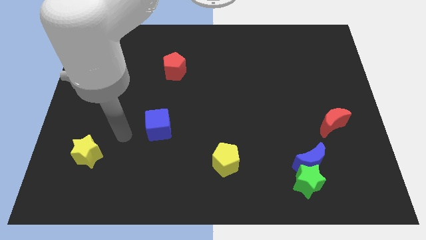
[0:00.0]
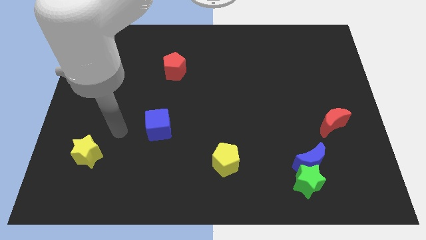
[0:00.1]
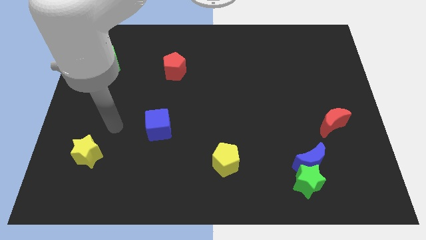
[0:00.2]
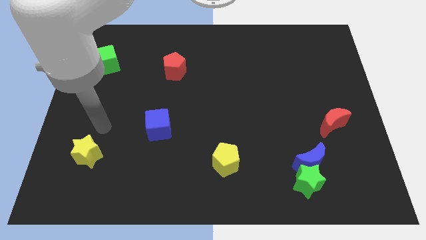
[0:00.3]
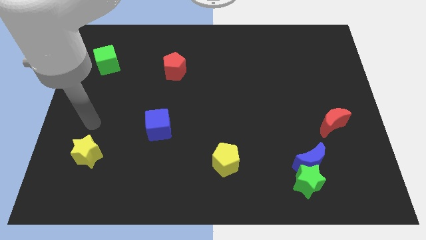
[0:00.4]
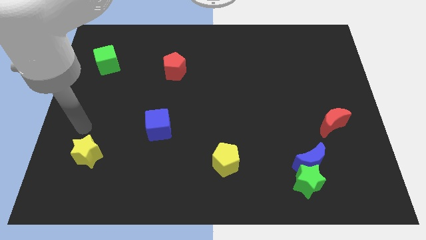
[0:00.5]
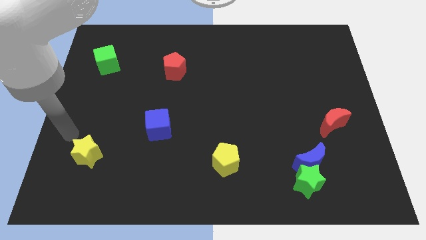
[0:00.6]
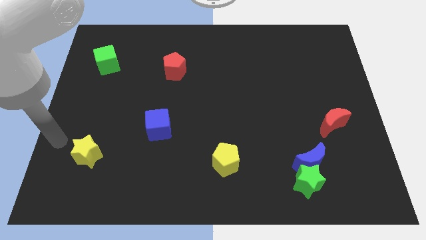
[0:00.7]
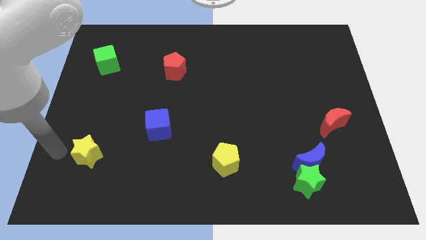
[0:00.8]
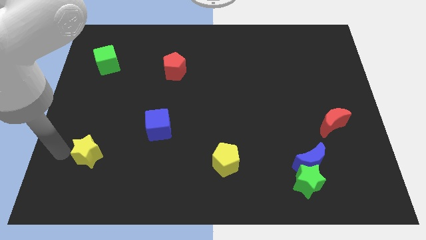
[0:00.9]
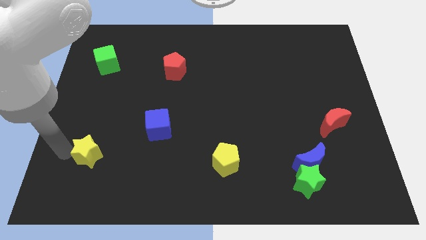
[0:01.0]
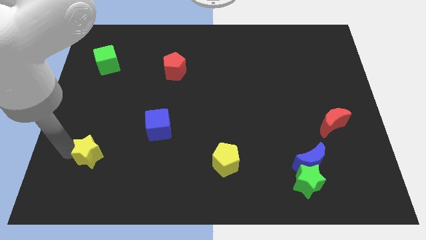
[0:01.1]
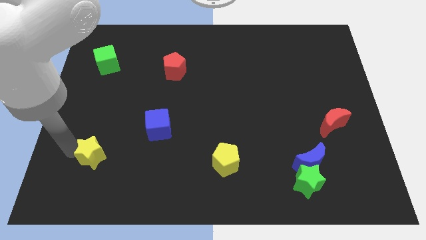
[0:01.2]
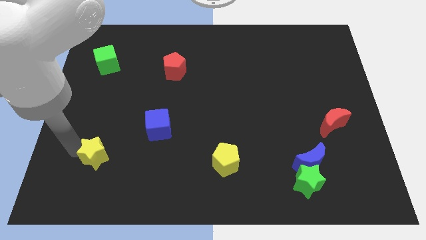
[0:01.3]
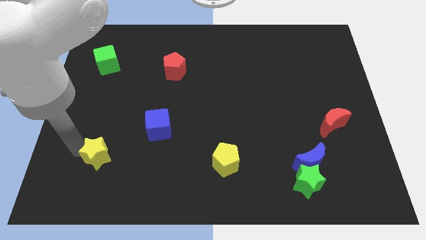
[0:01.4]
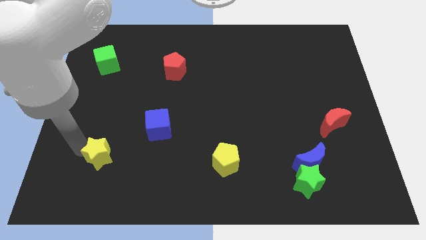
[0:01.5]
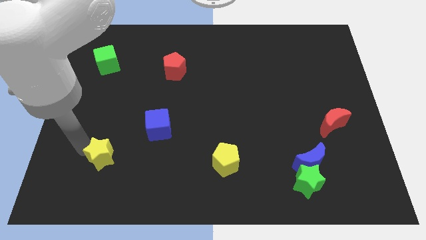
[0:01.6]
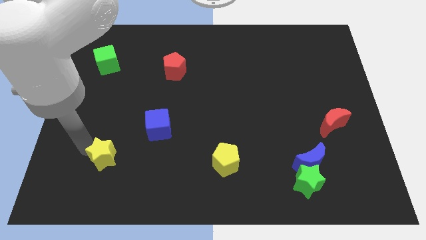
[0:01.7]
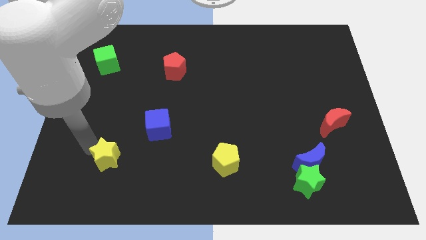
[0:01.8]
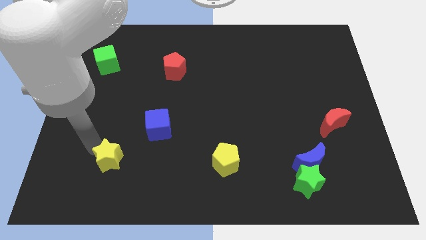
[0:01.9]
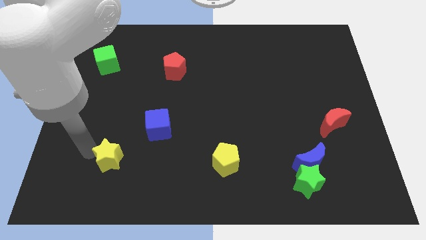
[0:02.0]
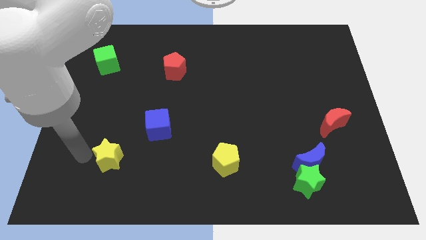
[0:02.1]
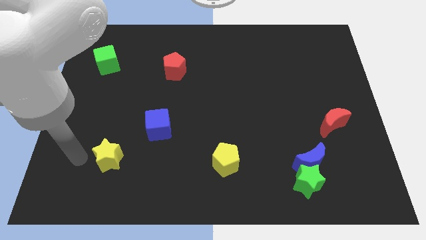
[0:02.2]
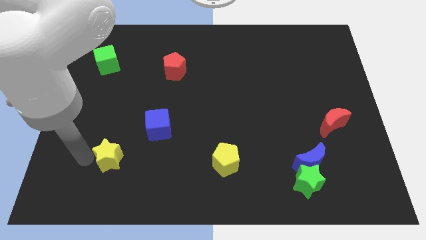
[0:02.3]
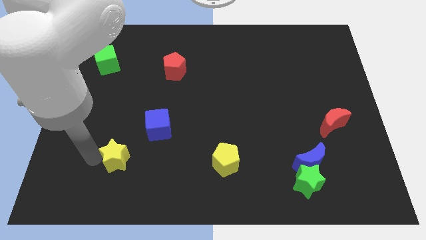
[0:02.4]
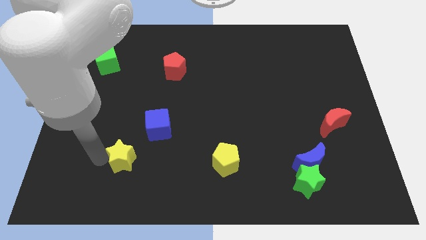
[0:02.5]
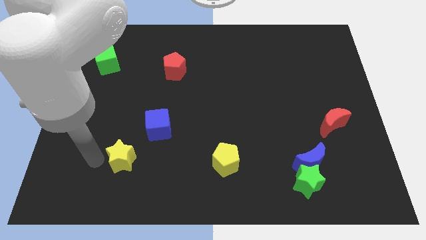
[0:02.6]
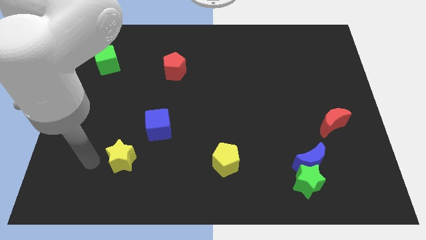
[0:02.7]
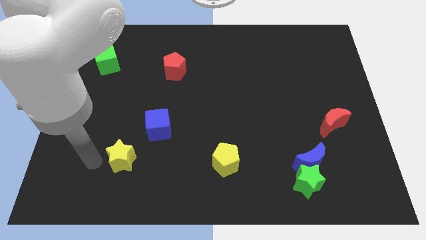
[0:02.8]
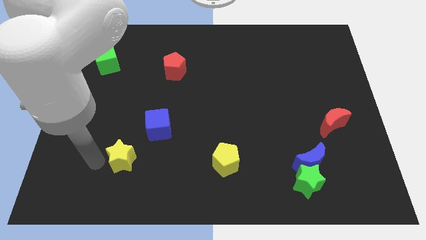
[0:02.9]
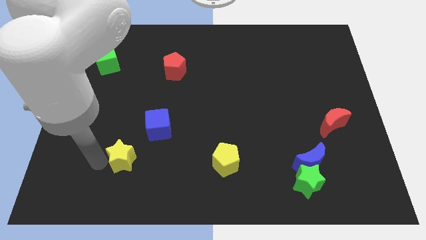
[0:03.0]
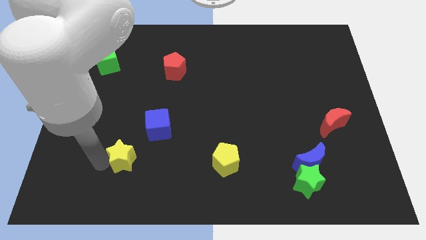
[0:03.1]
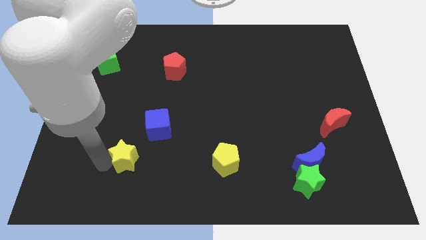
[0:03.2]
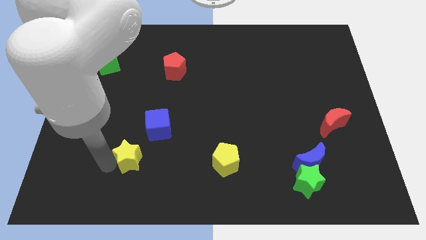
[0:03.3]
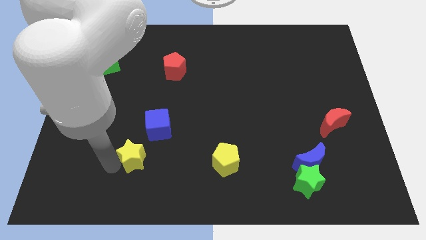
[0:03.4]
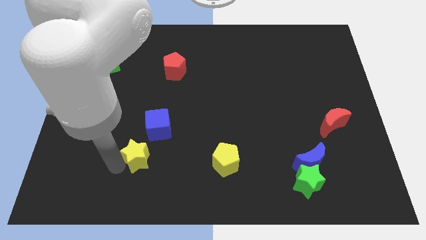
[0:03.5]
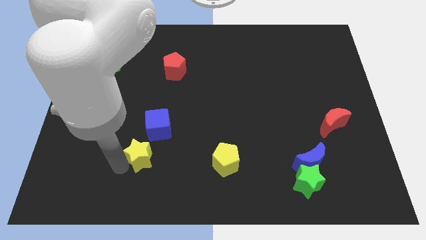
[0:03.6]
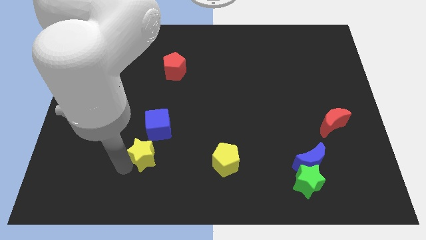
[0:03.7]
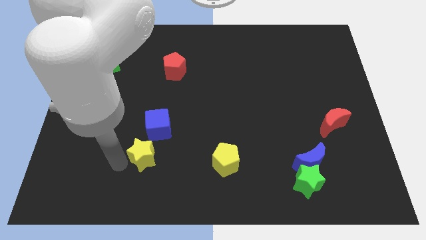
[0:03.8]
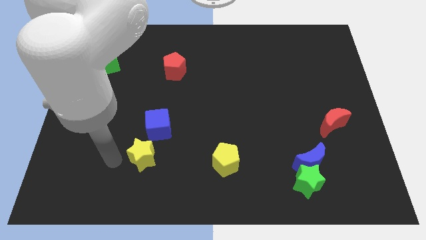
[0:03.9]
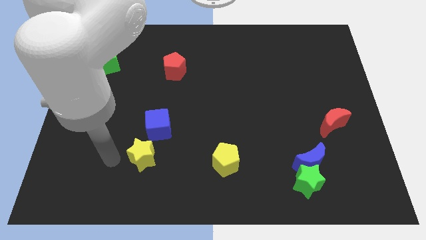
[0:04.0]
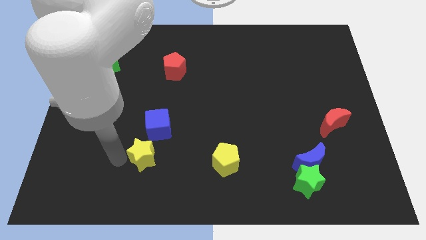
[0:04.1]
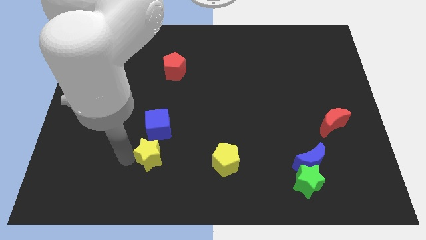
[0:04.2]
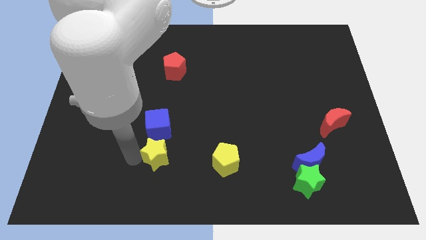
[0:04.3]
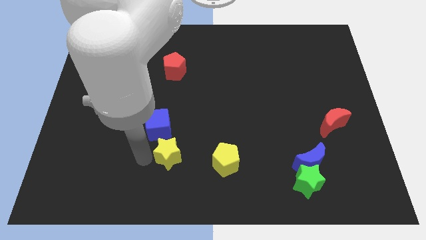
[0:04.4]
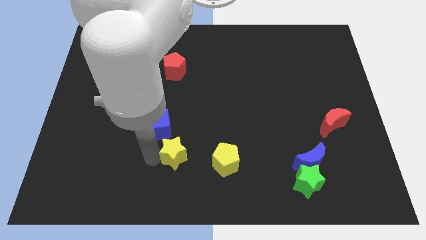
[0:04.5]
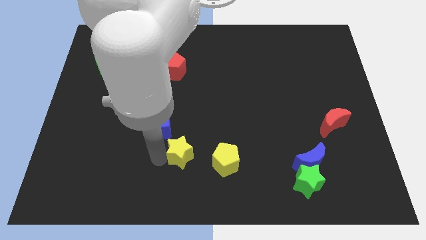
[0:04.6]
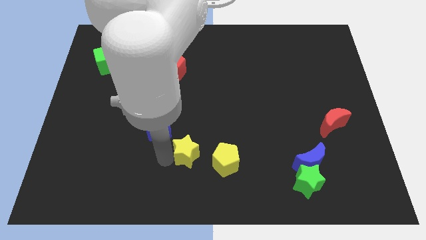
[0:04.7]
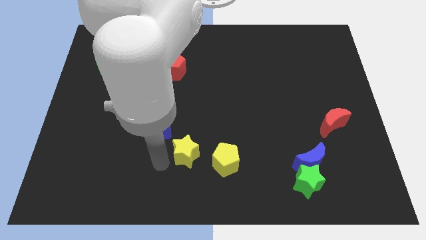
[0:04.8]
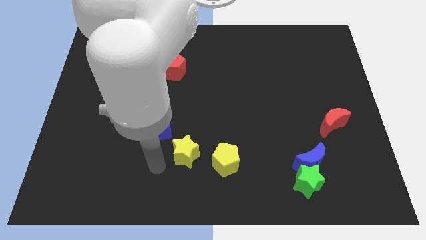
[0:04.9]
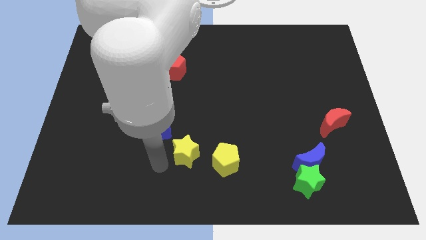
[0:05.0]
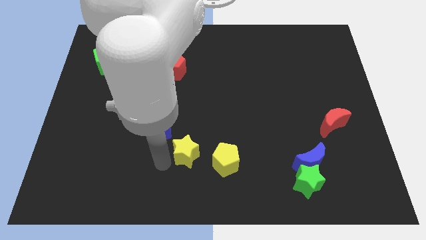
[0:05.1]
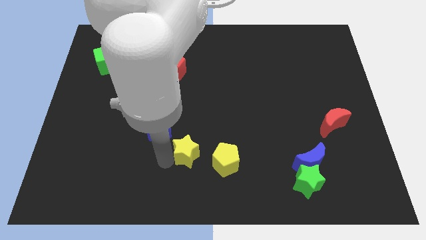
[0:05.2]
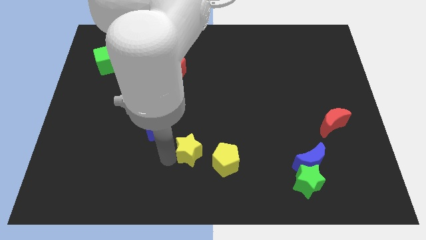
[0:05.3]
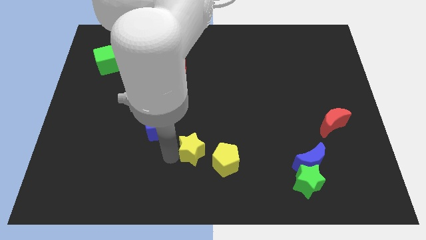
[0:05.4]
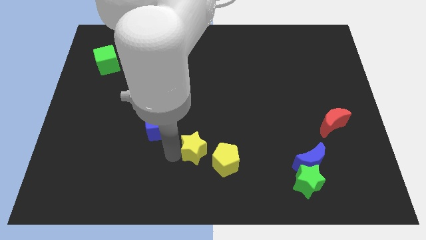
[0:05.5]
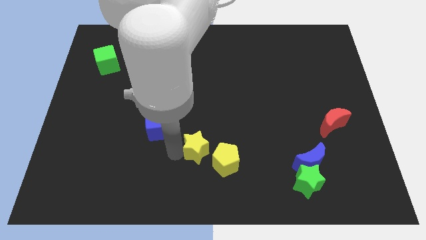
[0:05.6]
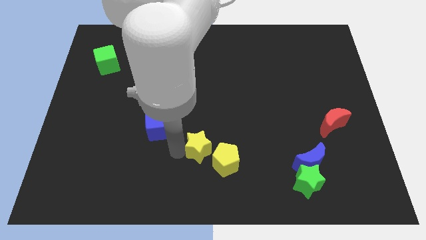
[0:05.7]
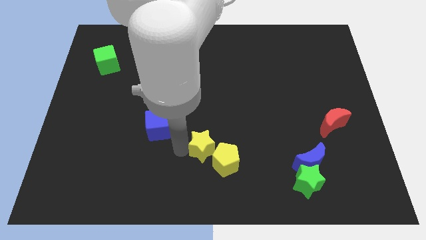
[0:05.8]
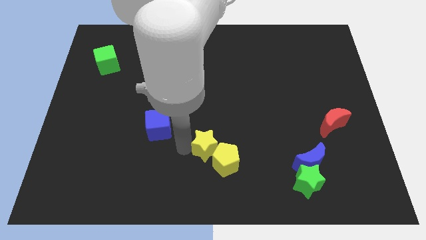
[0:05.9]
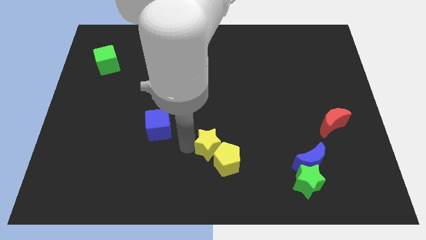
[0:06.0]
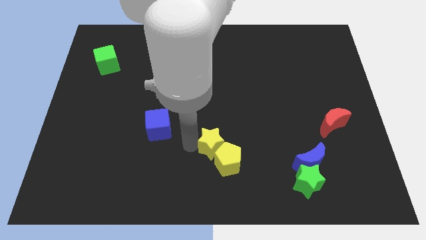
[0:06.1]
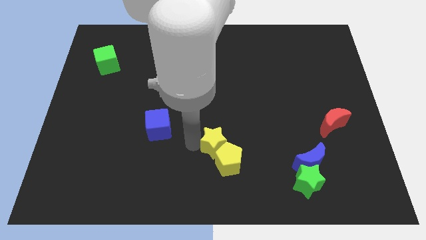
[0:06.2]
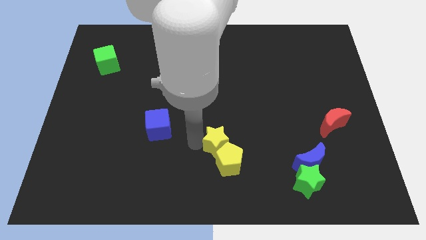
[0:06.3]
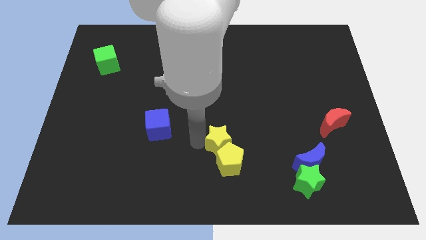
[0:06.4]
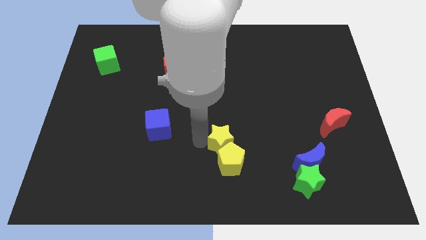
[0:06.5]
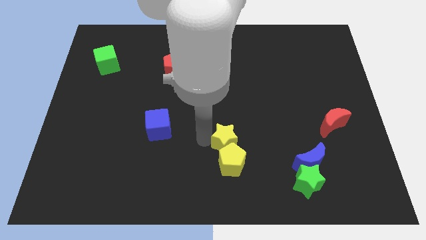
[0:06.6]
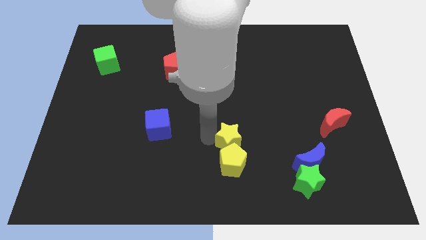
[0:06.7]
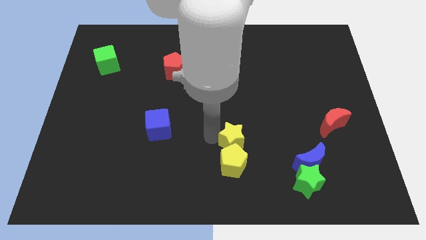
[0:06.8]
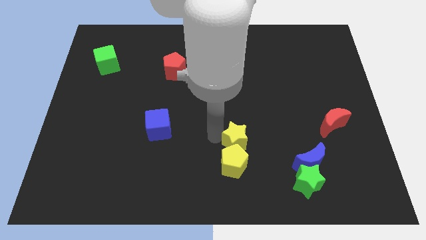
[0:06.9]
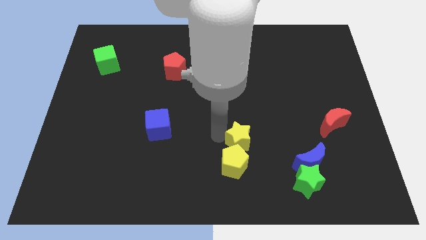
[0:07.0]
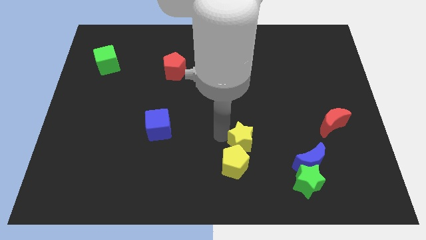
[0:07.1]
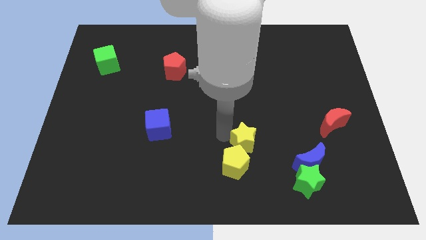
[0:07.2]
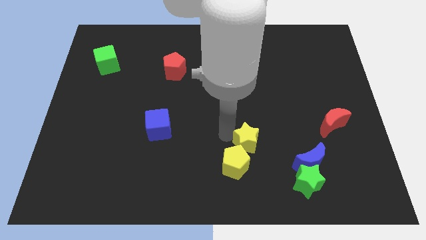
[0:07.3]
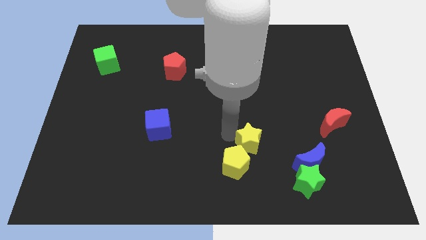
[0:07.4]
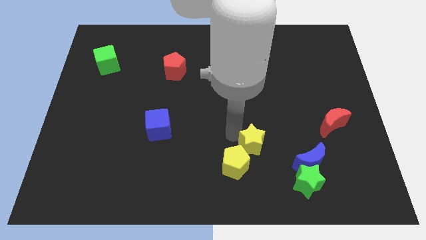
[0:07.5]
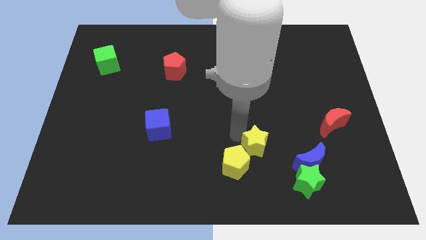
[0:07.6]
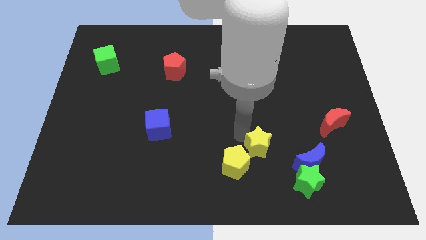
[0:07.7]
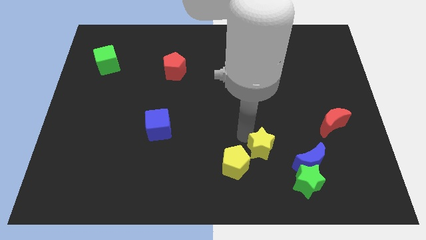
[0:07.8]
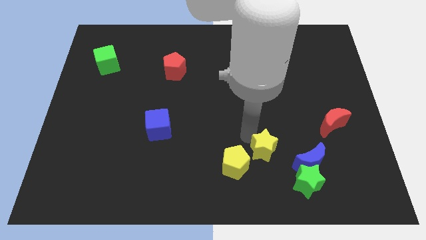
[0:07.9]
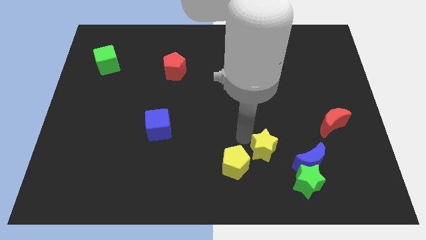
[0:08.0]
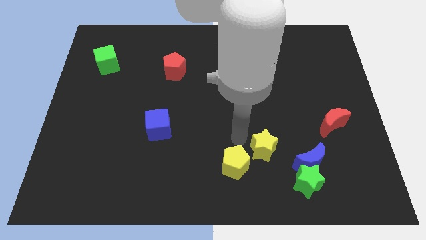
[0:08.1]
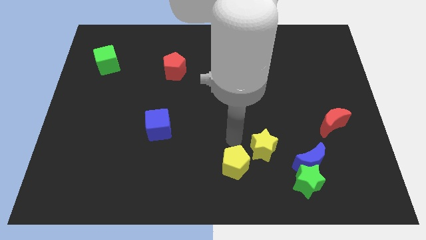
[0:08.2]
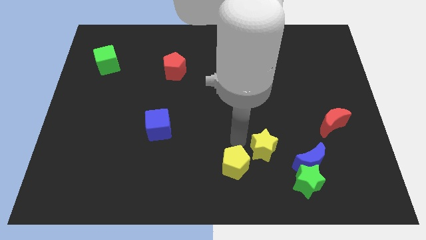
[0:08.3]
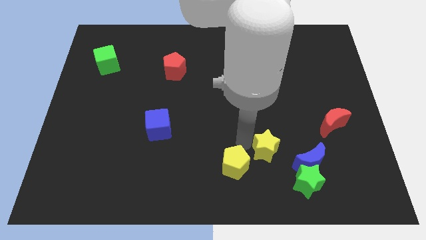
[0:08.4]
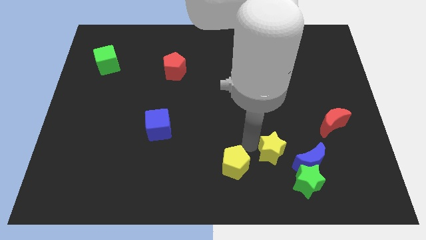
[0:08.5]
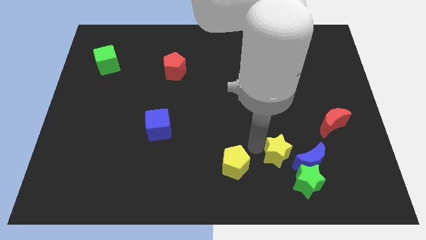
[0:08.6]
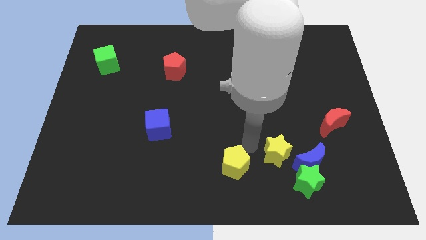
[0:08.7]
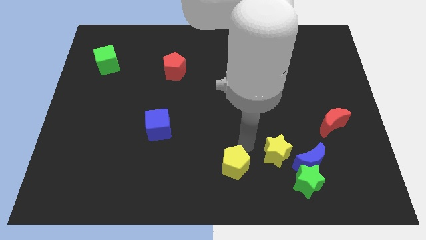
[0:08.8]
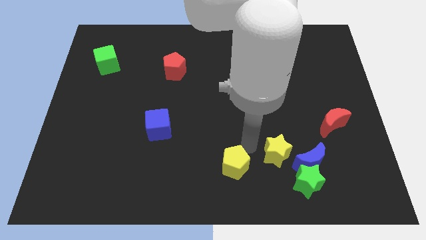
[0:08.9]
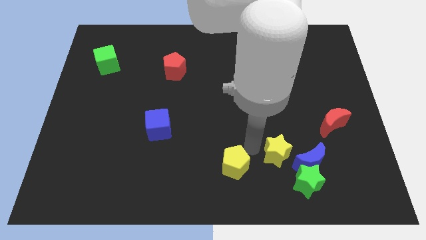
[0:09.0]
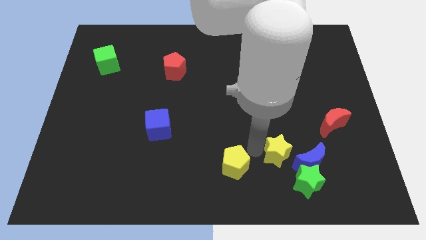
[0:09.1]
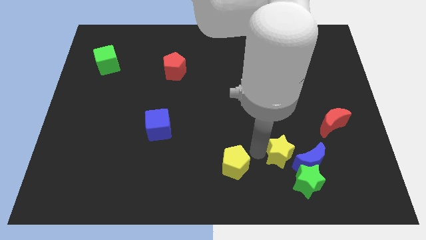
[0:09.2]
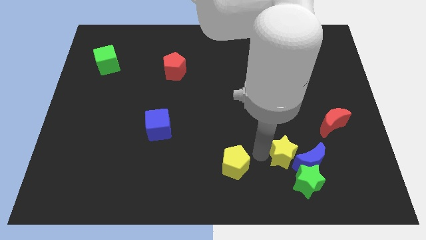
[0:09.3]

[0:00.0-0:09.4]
slide the yellow star close to the blue moon
